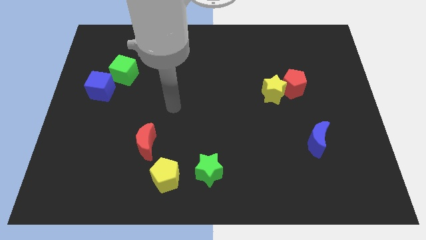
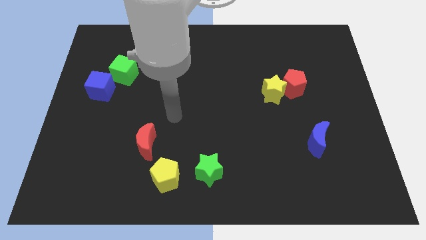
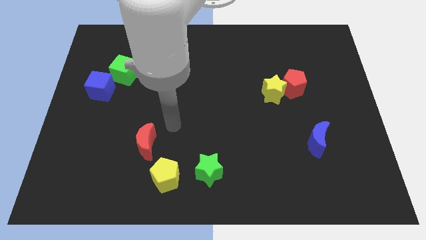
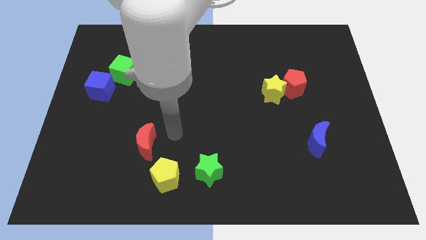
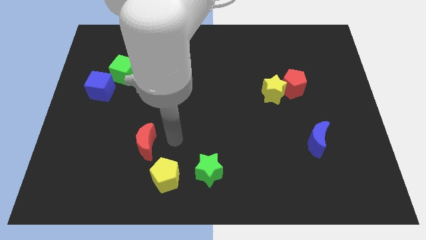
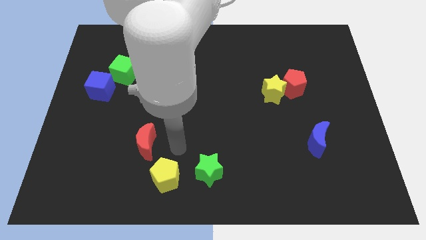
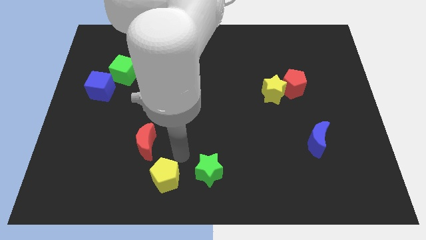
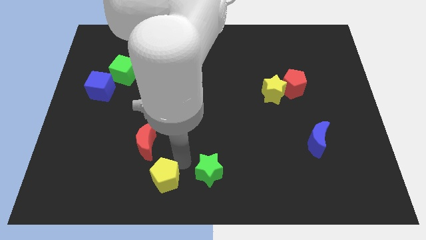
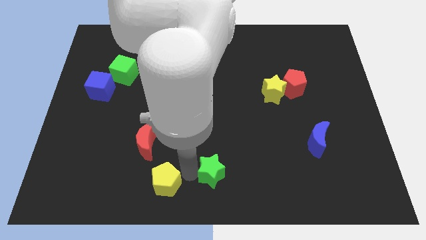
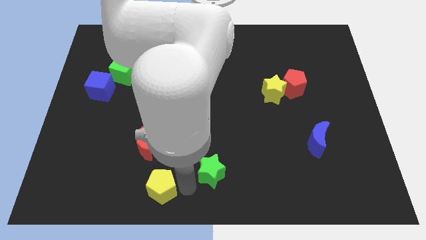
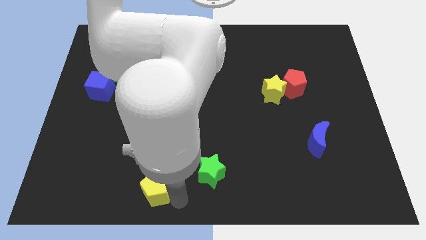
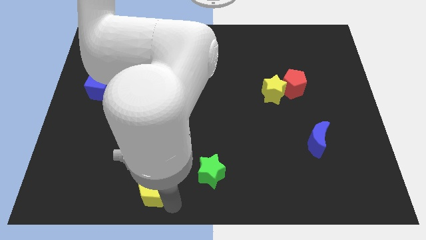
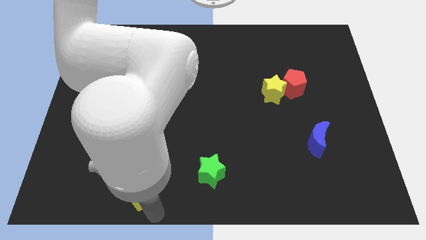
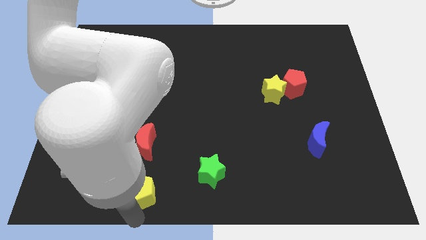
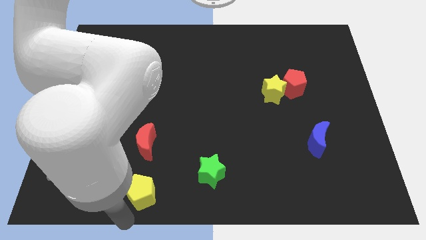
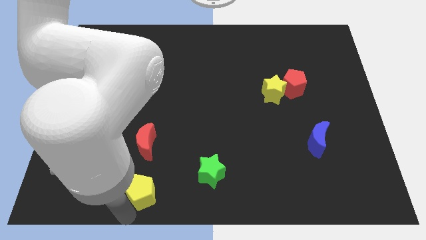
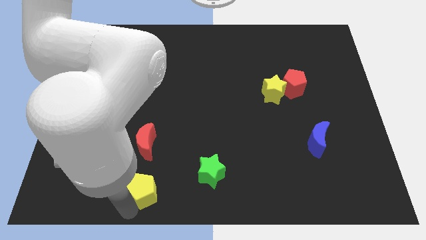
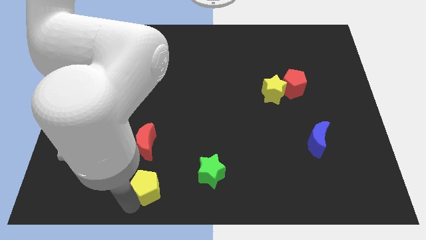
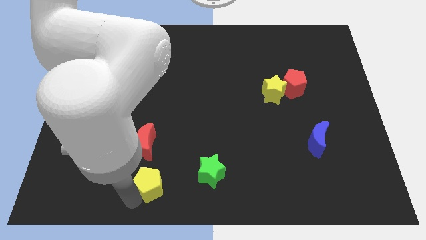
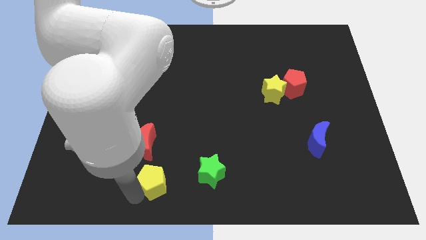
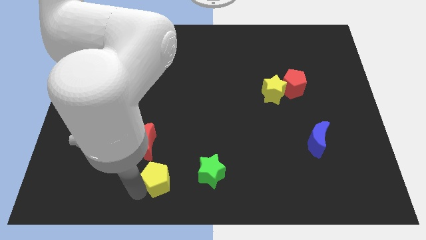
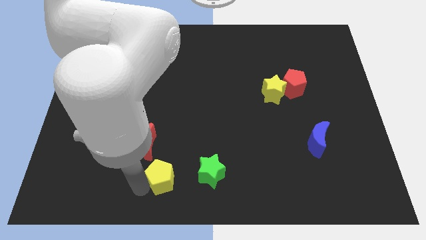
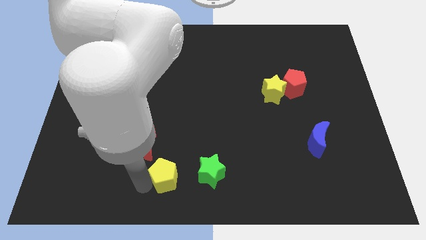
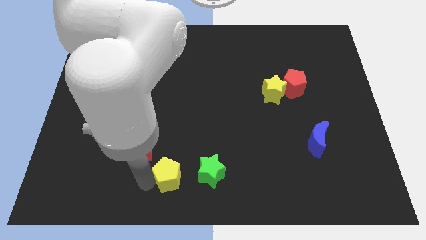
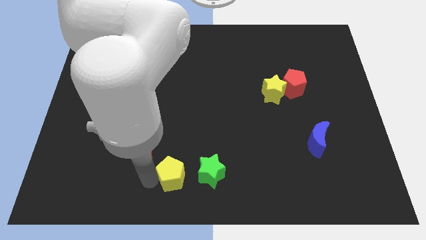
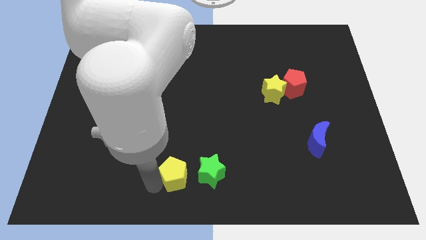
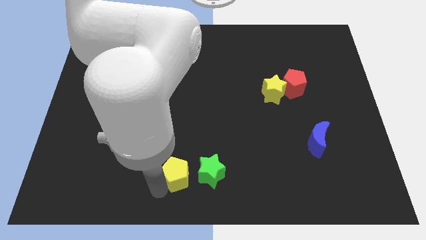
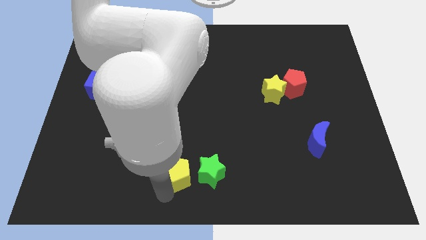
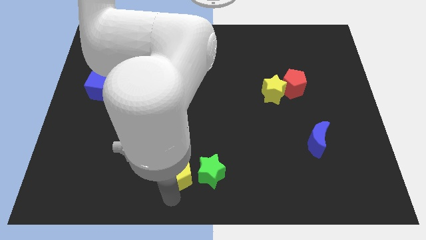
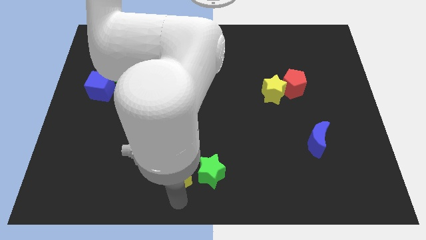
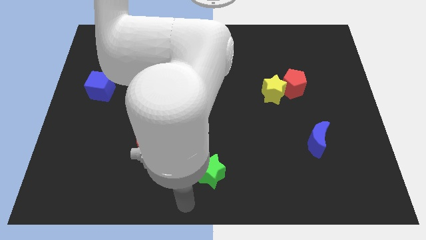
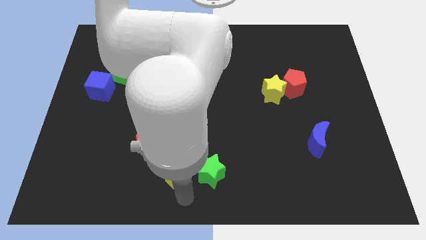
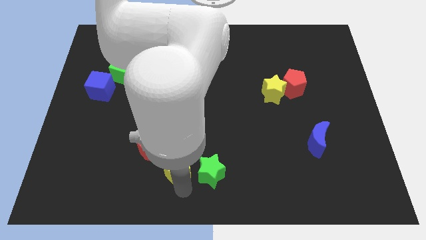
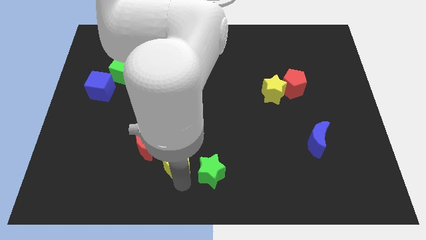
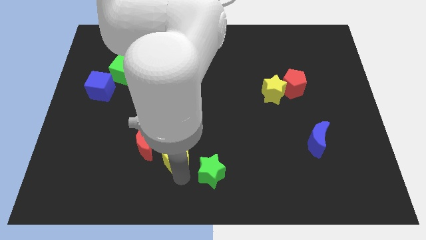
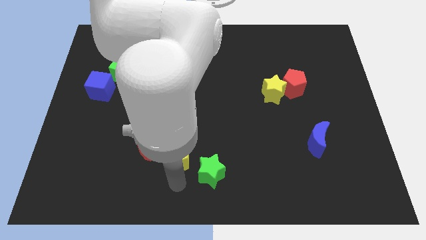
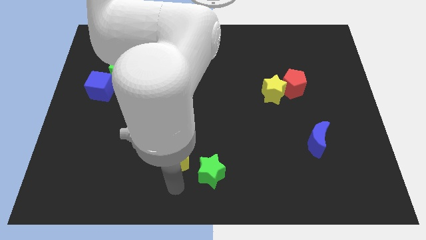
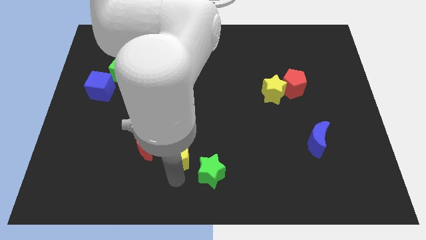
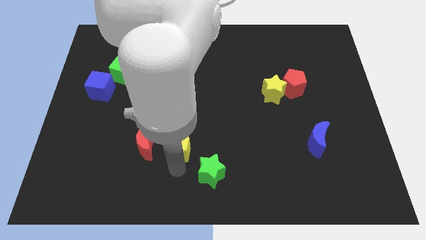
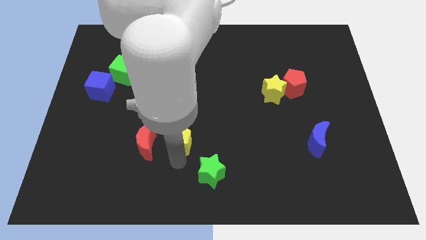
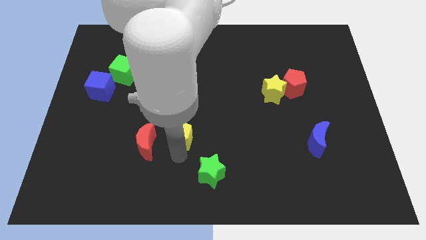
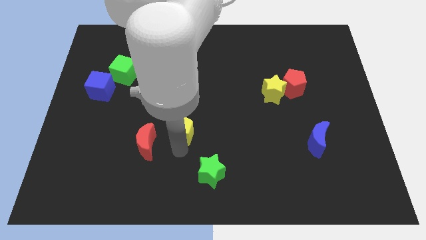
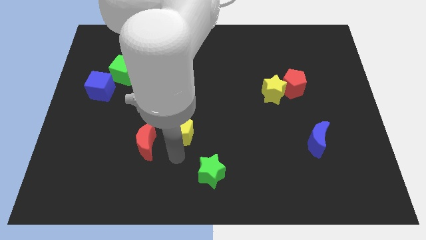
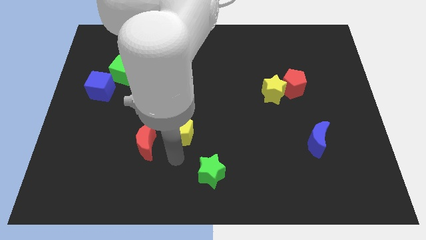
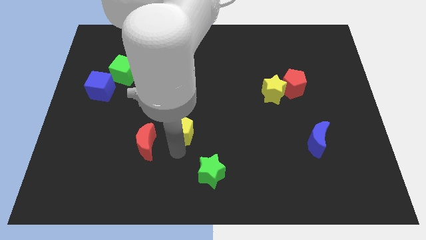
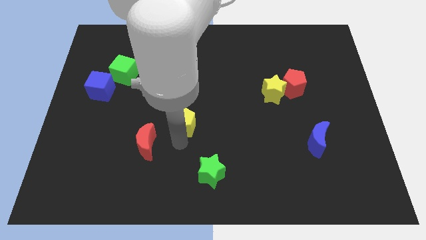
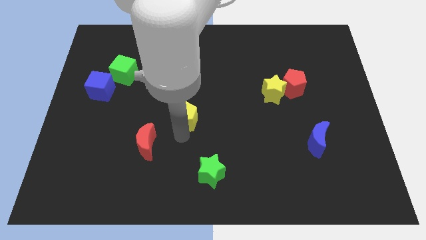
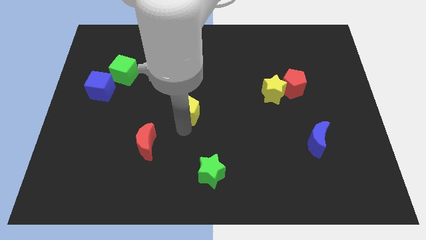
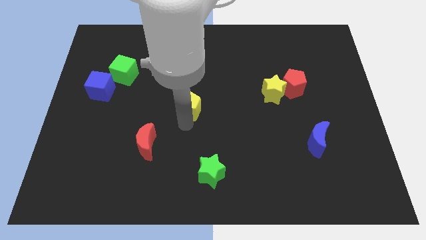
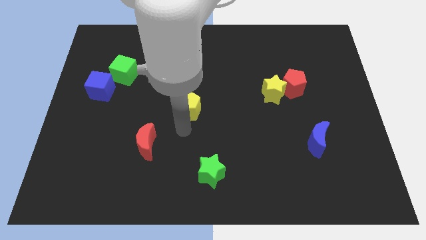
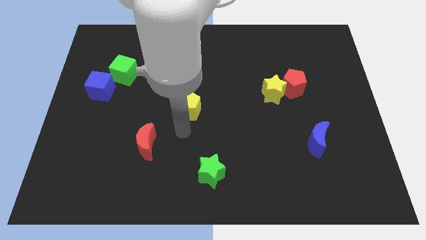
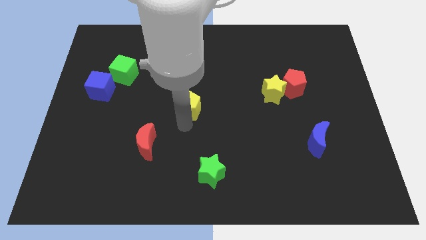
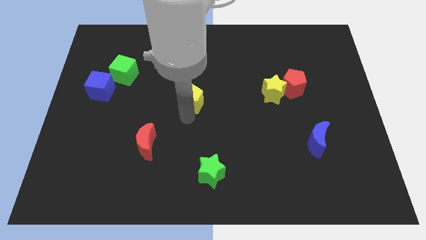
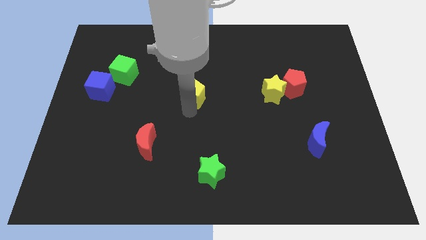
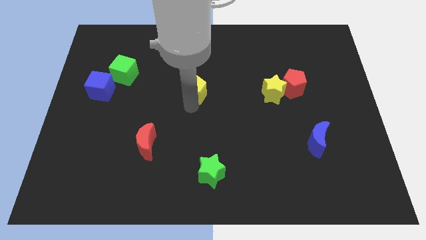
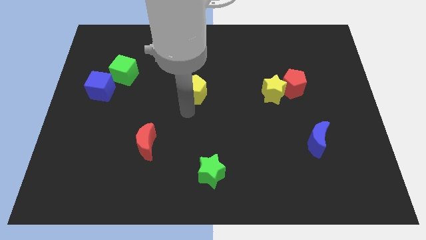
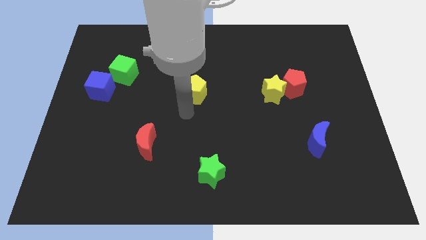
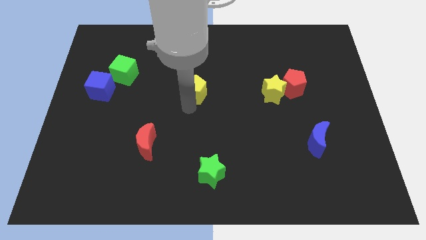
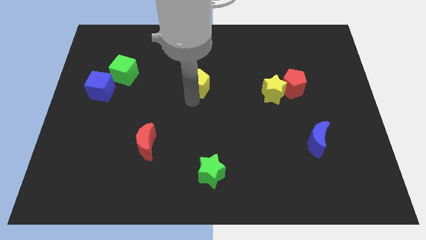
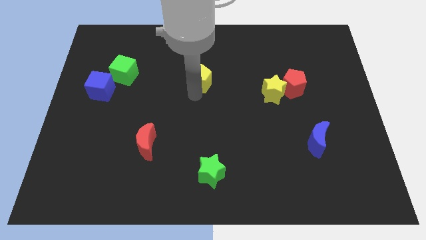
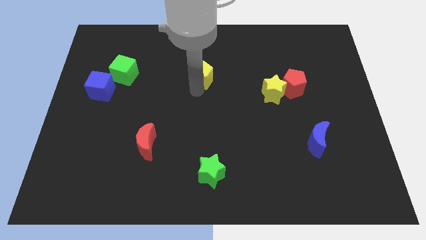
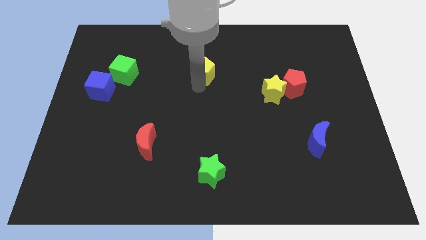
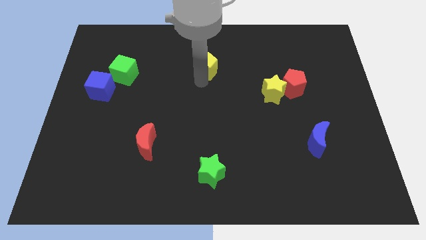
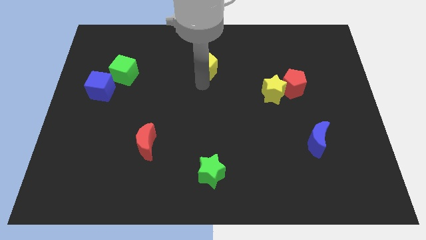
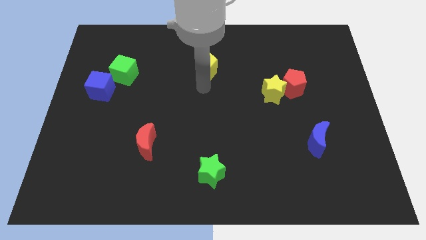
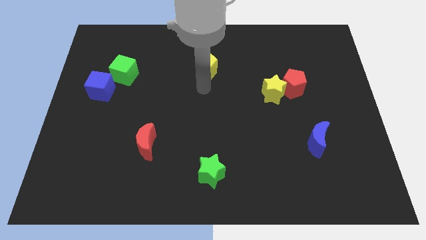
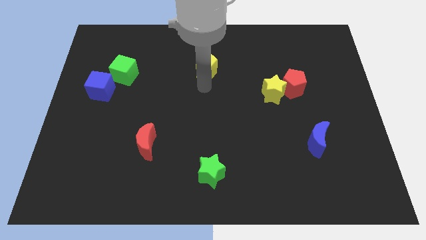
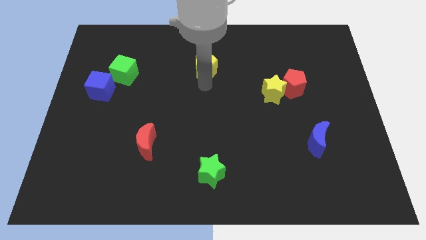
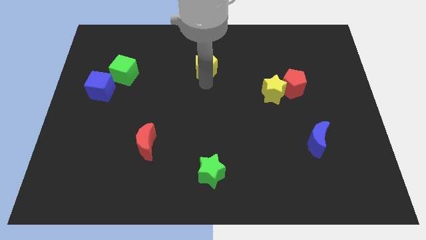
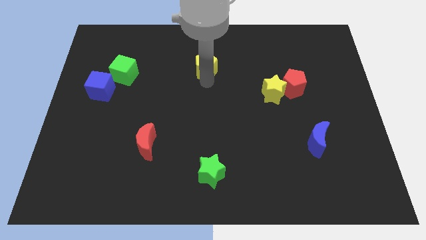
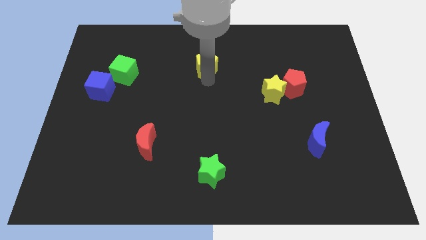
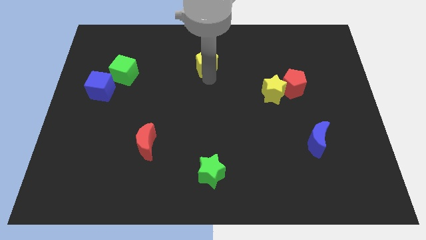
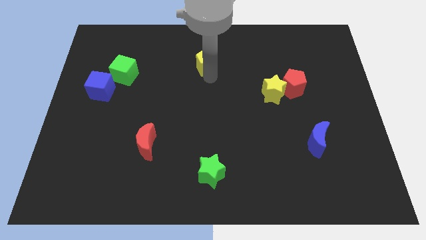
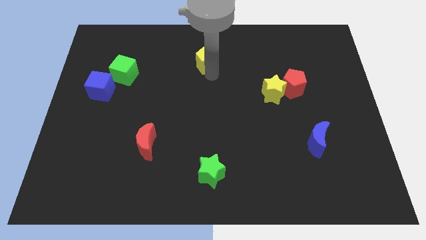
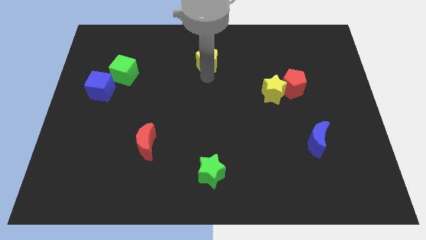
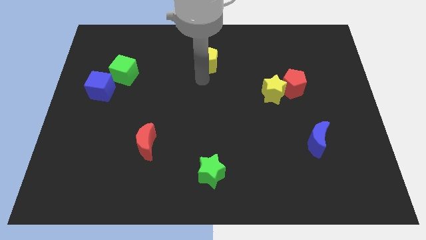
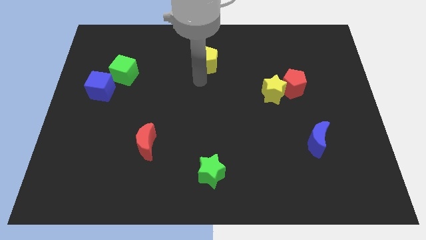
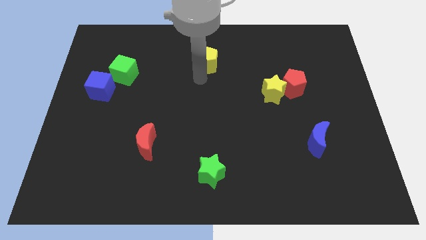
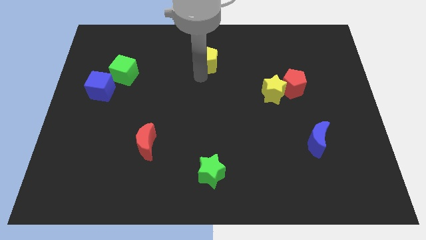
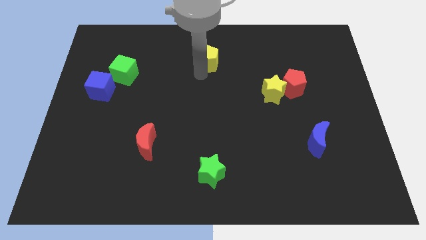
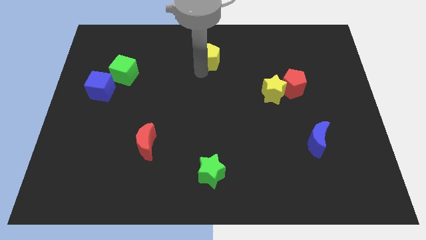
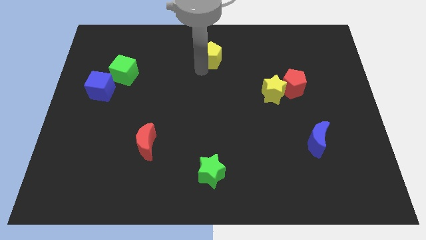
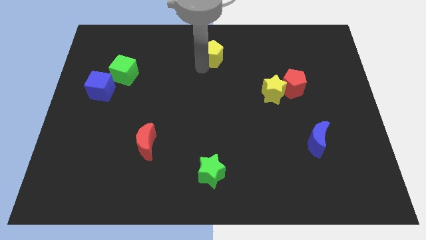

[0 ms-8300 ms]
push the yellow pentagon to the top
